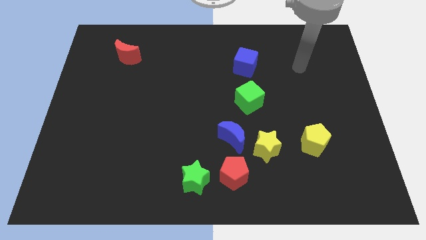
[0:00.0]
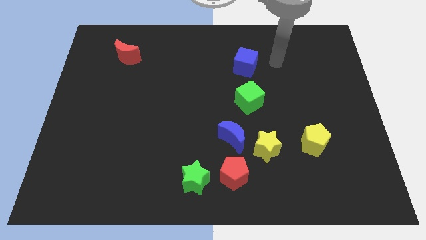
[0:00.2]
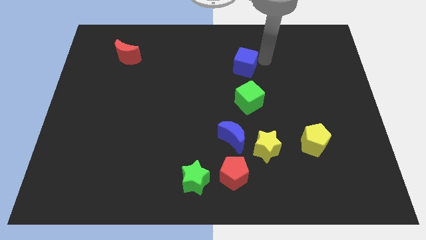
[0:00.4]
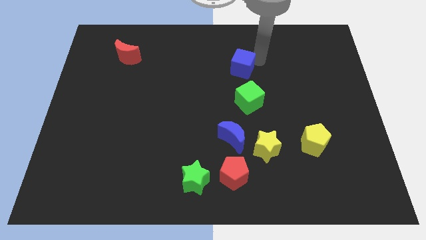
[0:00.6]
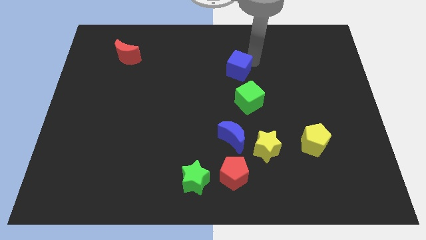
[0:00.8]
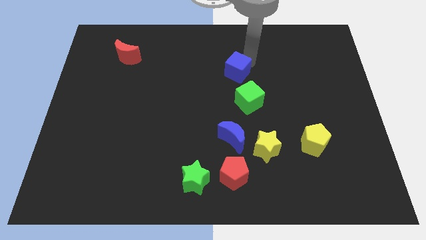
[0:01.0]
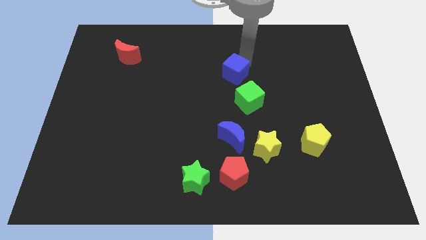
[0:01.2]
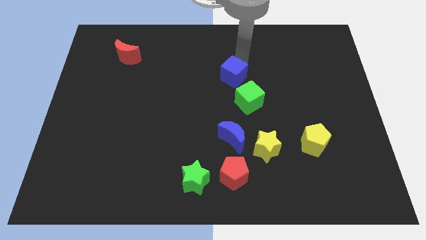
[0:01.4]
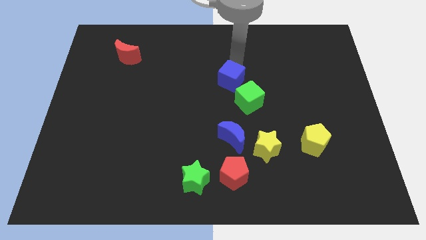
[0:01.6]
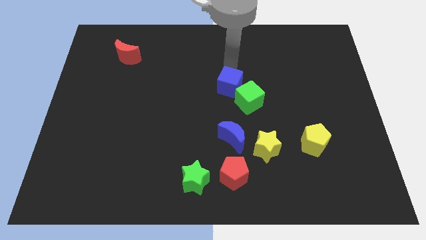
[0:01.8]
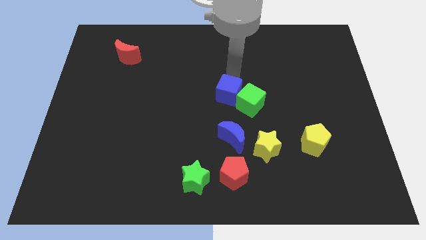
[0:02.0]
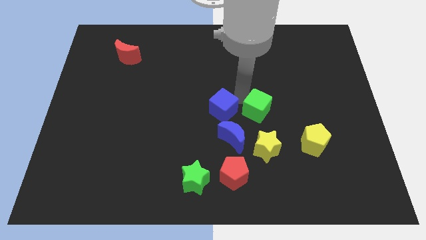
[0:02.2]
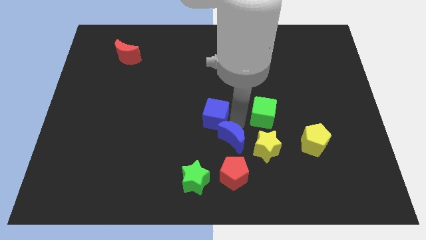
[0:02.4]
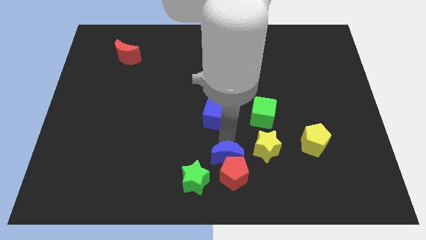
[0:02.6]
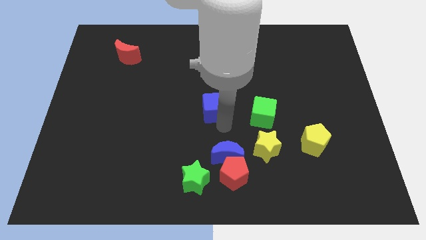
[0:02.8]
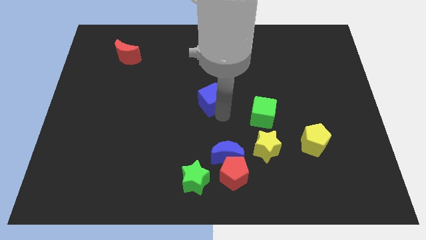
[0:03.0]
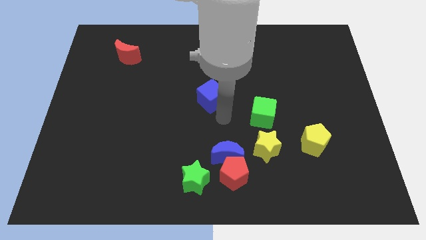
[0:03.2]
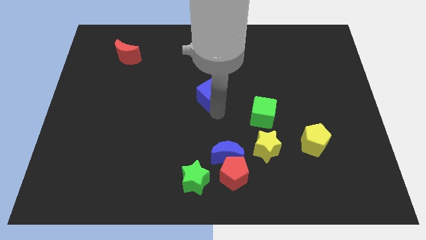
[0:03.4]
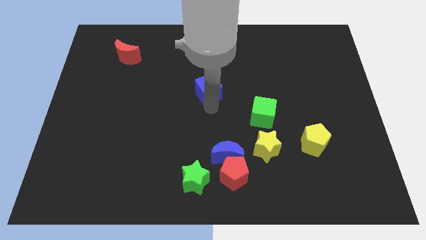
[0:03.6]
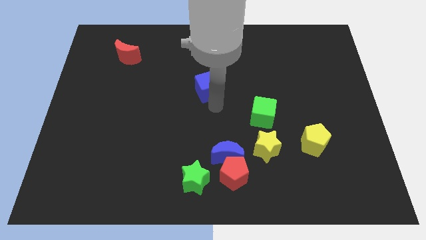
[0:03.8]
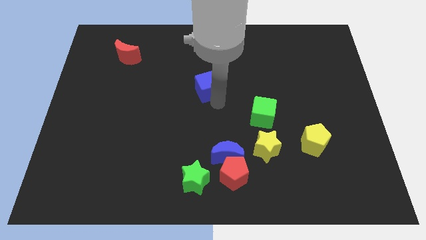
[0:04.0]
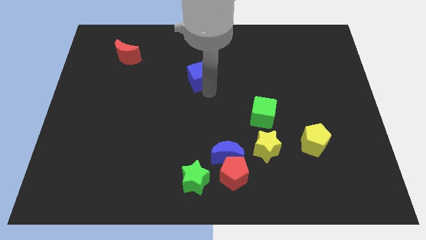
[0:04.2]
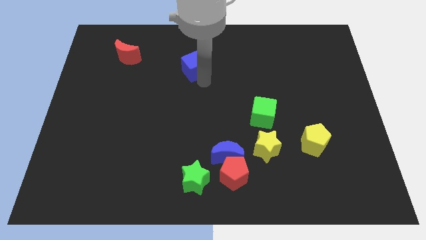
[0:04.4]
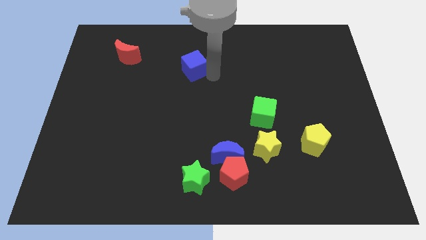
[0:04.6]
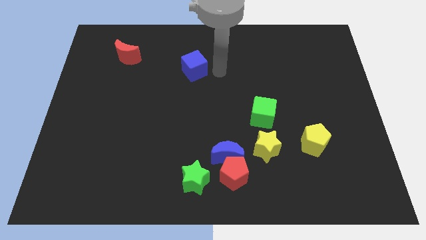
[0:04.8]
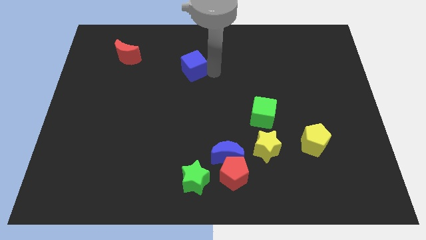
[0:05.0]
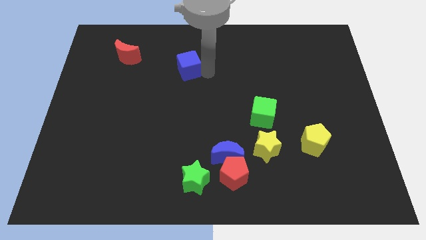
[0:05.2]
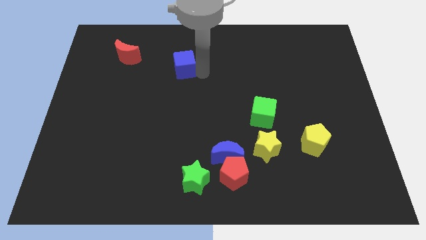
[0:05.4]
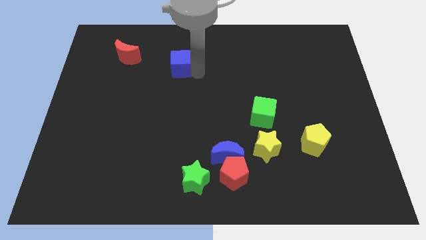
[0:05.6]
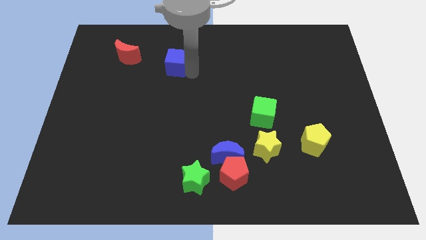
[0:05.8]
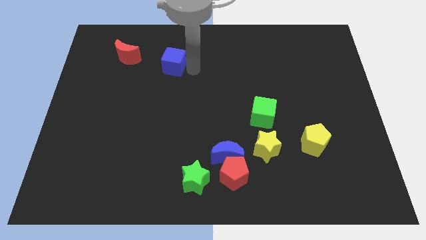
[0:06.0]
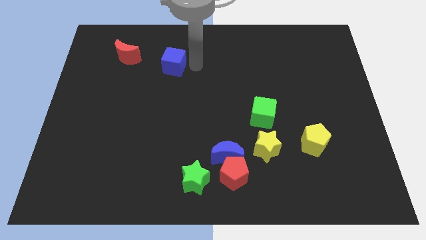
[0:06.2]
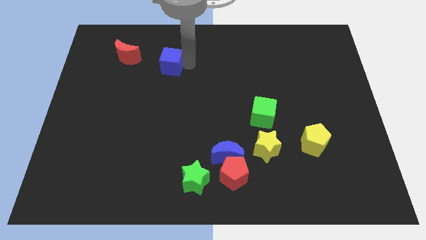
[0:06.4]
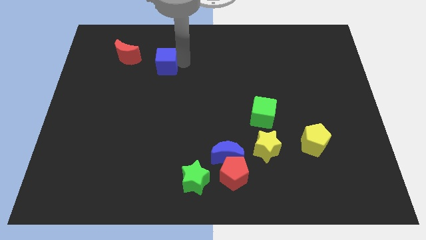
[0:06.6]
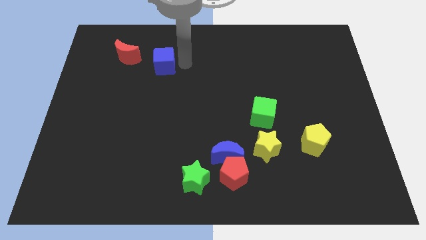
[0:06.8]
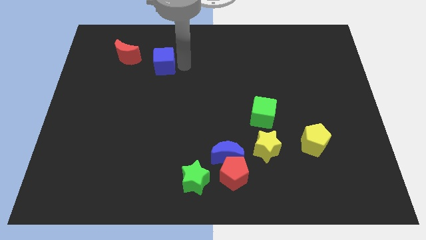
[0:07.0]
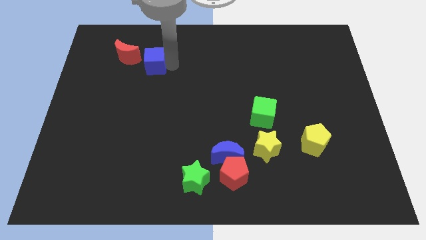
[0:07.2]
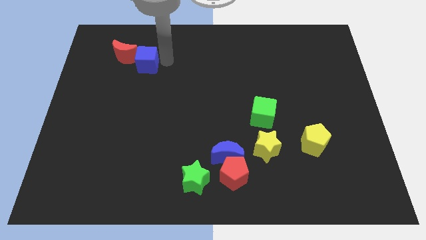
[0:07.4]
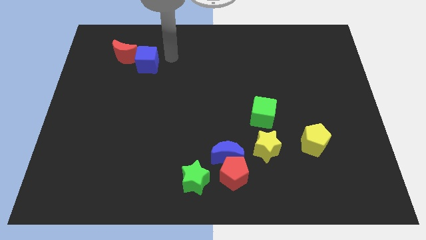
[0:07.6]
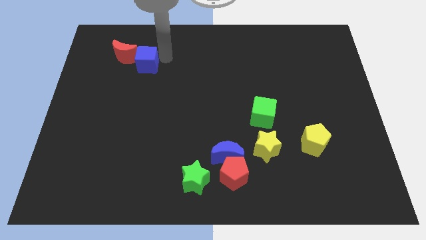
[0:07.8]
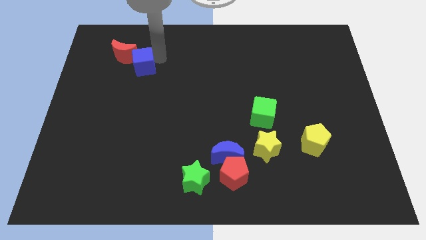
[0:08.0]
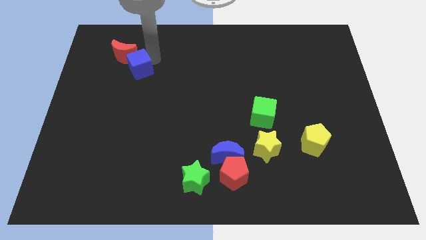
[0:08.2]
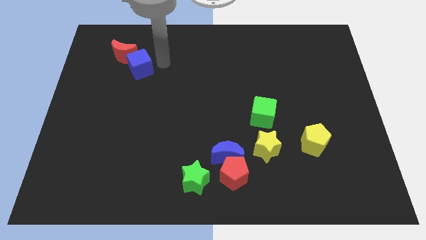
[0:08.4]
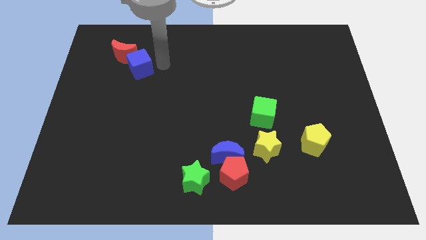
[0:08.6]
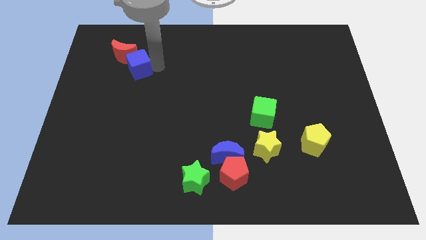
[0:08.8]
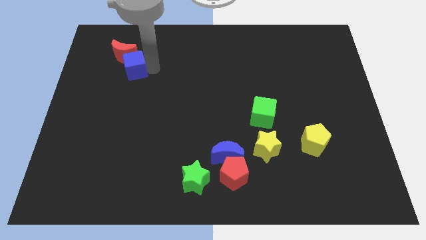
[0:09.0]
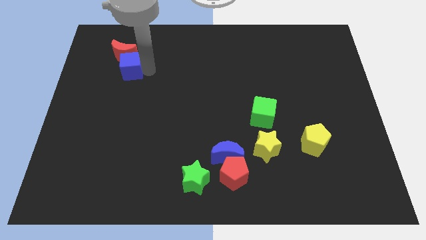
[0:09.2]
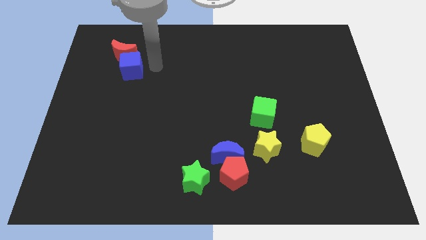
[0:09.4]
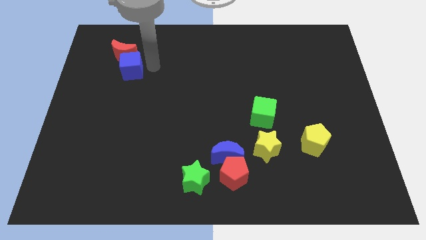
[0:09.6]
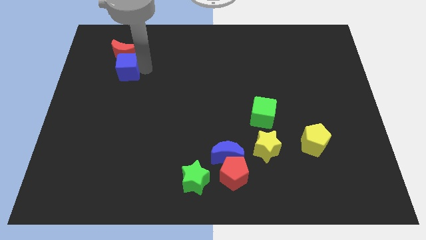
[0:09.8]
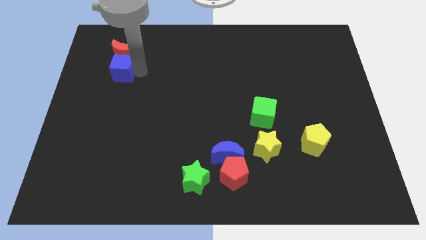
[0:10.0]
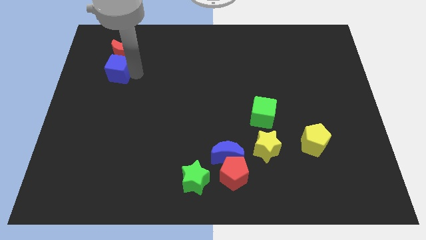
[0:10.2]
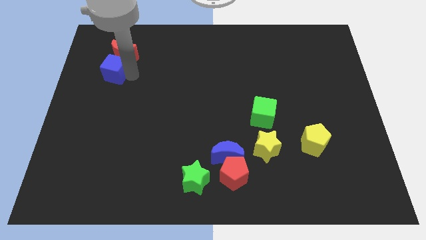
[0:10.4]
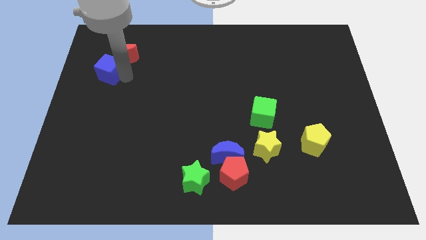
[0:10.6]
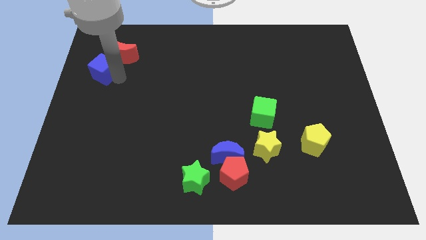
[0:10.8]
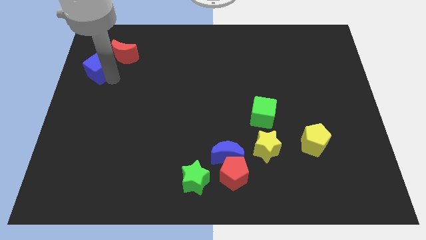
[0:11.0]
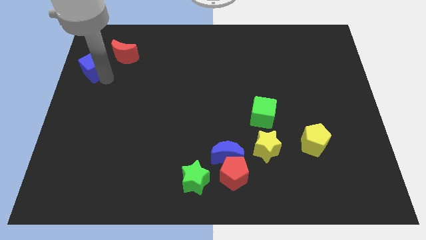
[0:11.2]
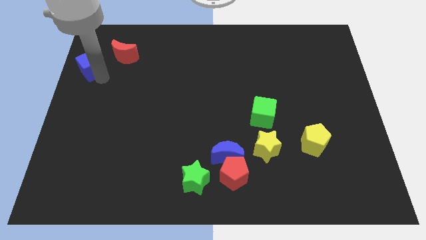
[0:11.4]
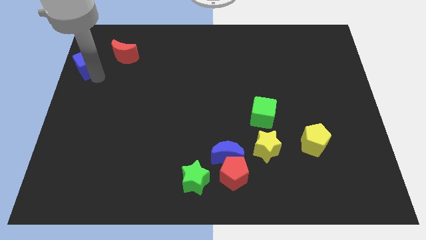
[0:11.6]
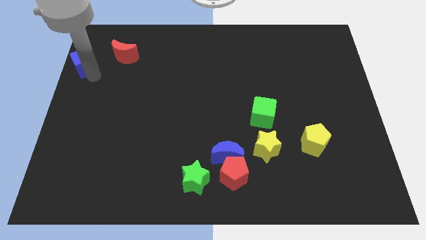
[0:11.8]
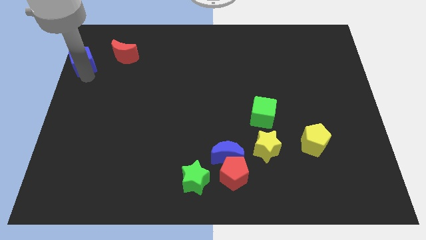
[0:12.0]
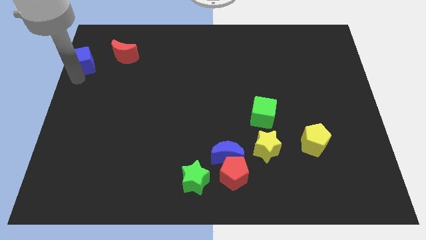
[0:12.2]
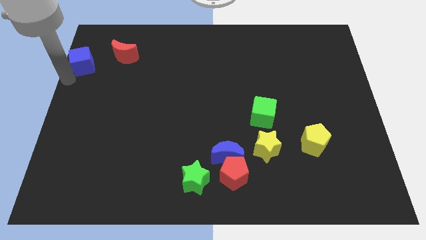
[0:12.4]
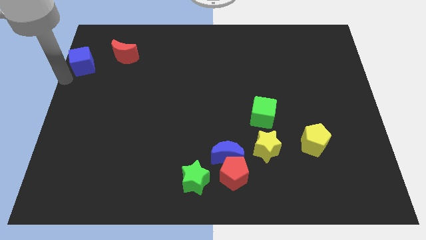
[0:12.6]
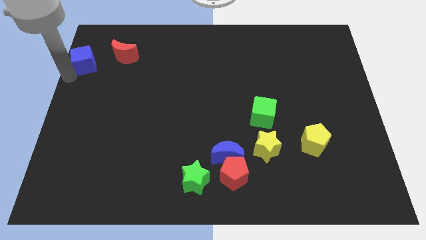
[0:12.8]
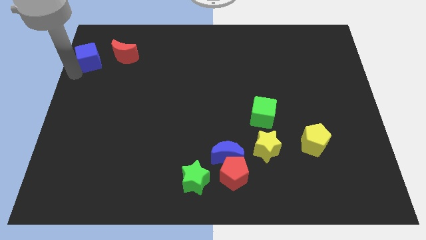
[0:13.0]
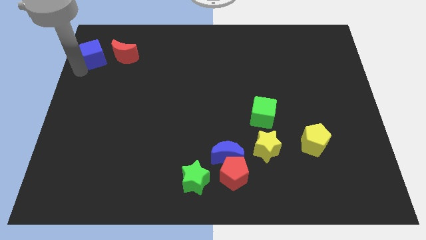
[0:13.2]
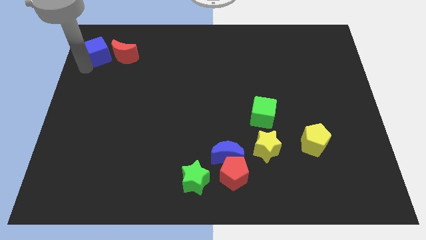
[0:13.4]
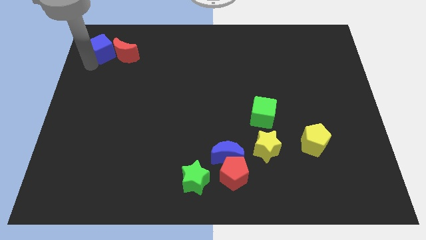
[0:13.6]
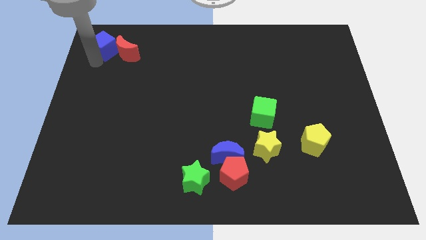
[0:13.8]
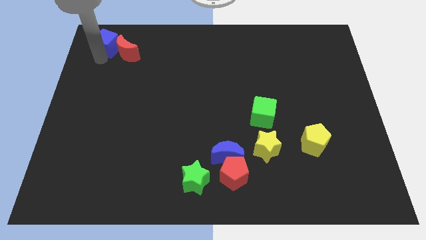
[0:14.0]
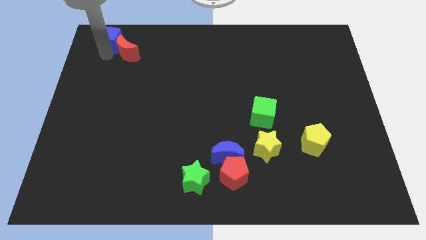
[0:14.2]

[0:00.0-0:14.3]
push the blue cube to the top left
